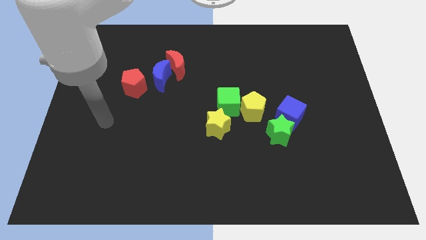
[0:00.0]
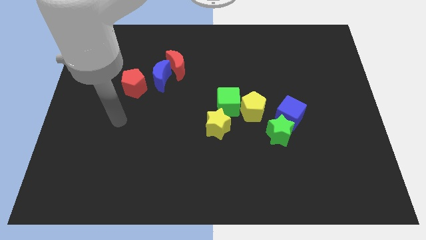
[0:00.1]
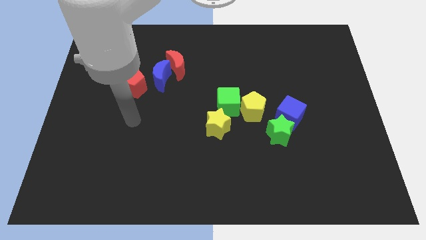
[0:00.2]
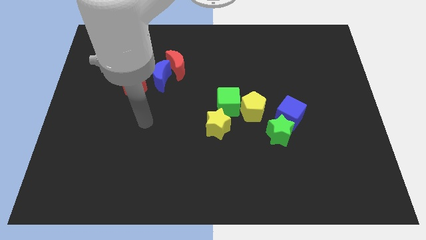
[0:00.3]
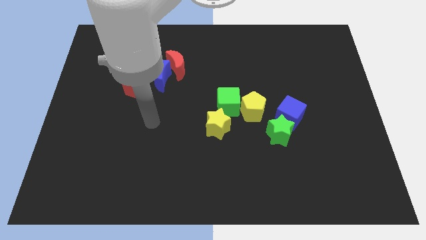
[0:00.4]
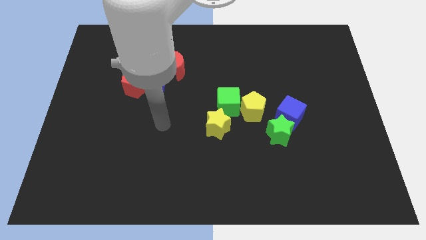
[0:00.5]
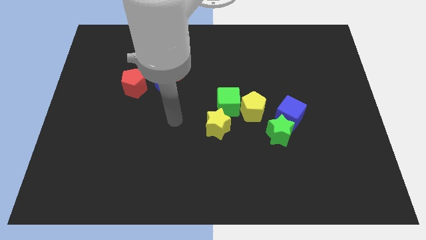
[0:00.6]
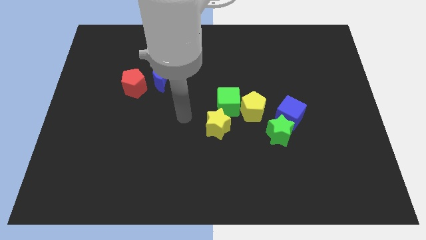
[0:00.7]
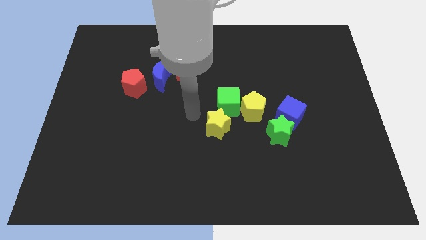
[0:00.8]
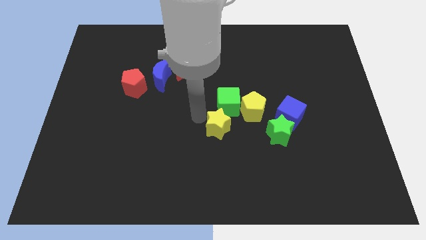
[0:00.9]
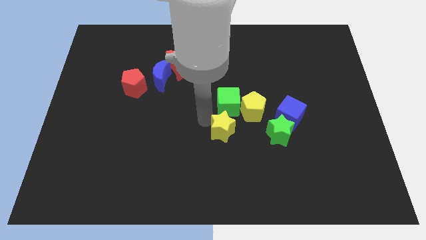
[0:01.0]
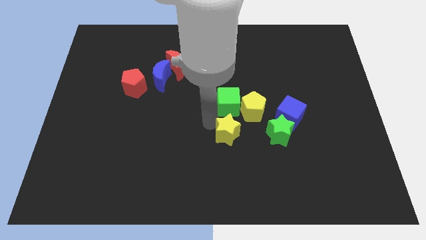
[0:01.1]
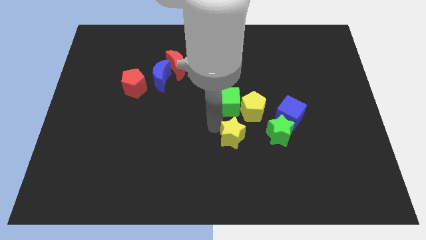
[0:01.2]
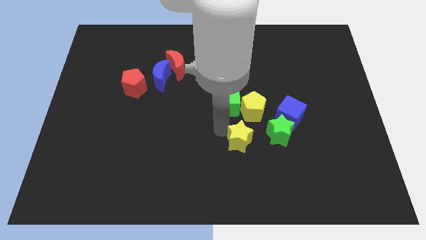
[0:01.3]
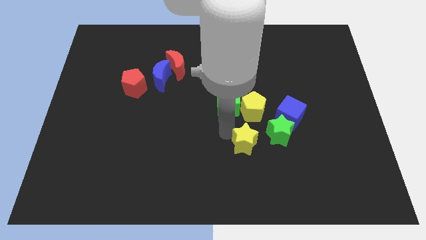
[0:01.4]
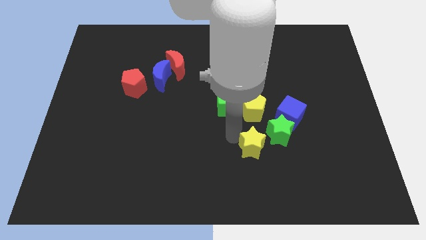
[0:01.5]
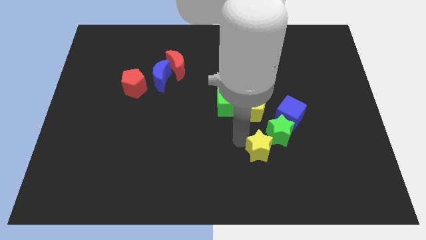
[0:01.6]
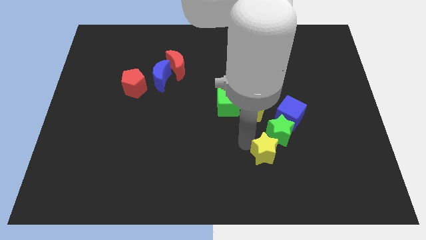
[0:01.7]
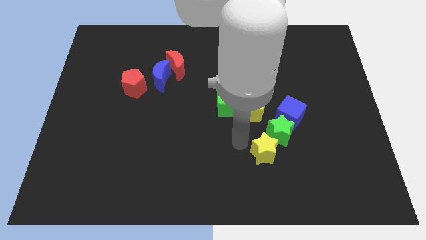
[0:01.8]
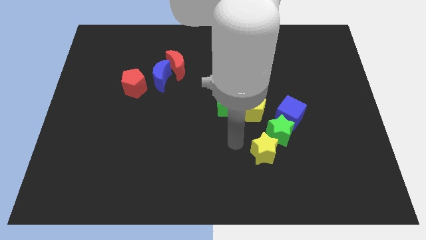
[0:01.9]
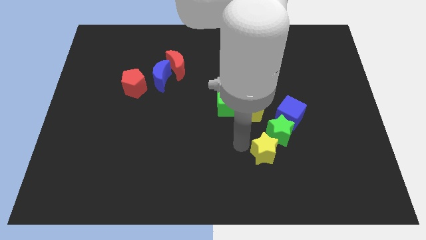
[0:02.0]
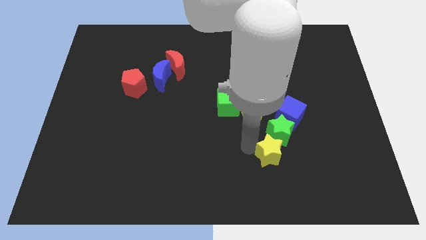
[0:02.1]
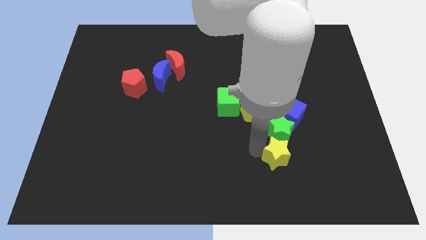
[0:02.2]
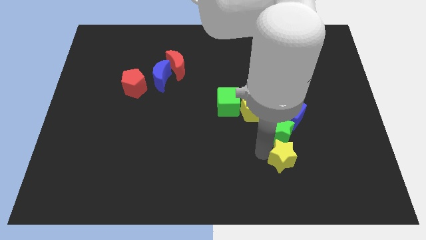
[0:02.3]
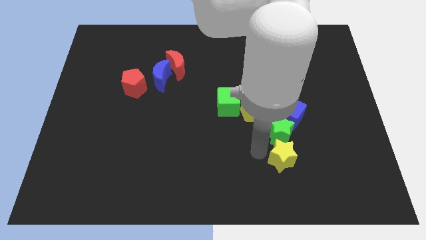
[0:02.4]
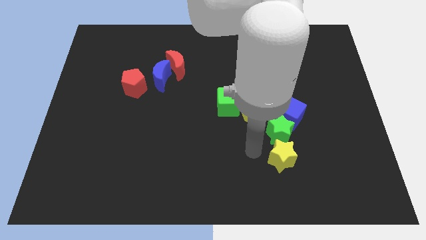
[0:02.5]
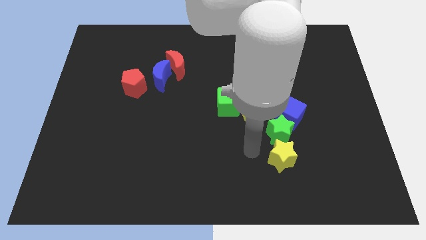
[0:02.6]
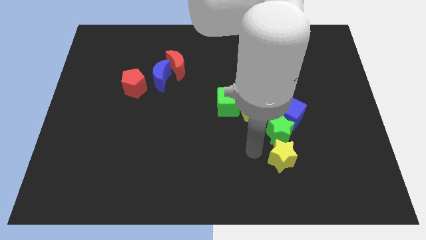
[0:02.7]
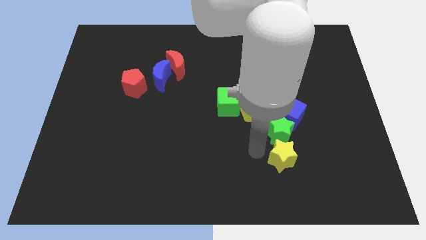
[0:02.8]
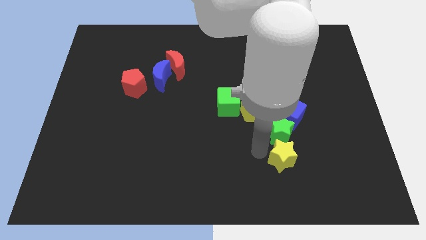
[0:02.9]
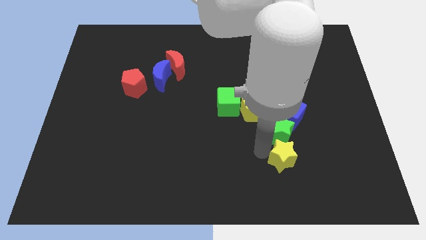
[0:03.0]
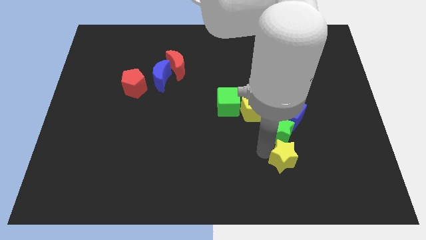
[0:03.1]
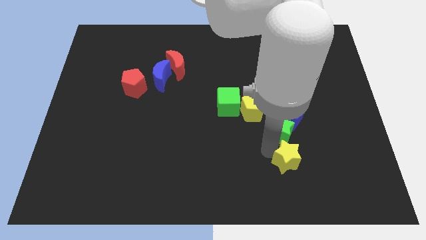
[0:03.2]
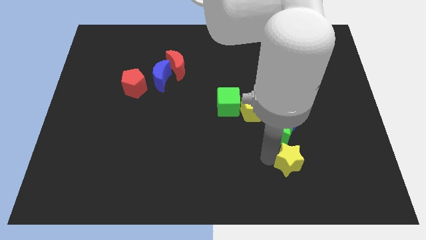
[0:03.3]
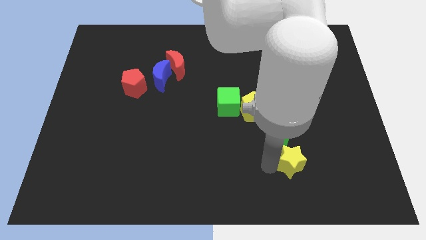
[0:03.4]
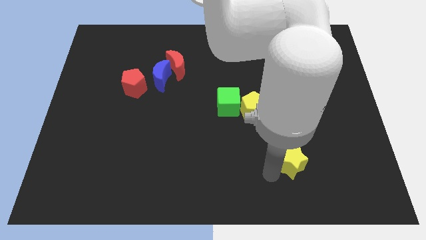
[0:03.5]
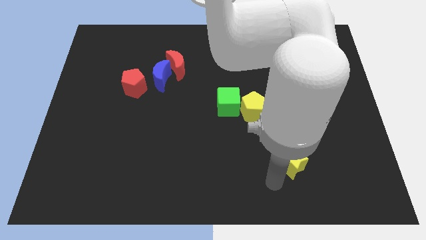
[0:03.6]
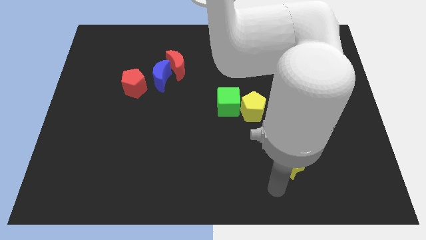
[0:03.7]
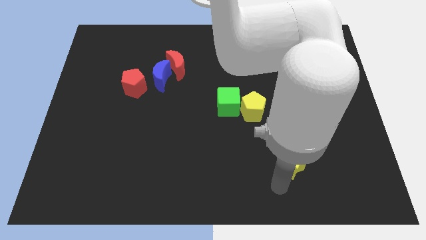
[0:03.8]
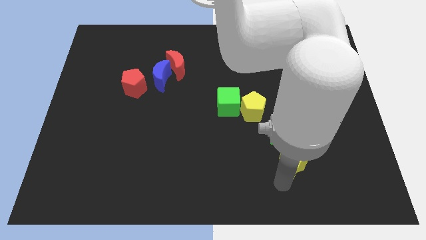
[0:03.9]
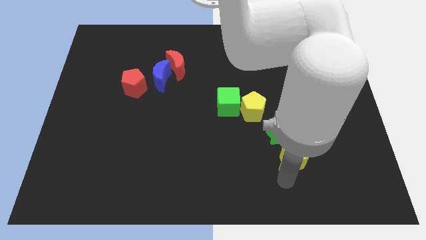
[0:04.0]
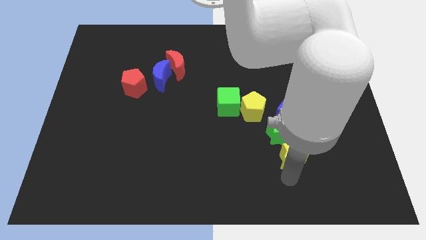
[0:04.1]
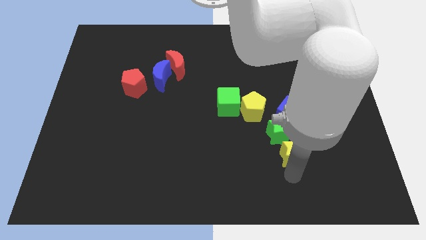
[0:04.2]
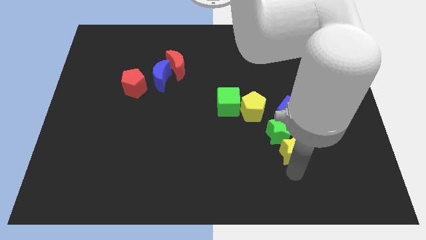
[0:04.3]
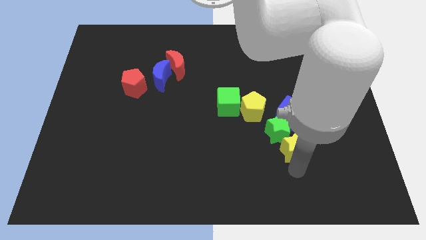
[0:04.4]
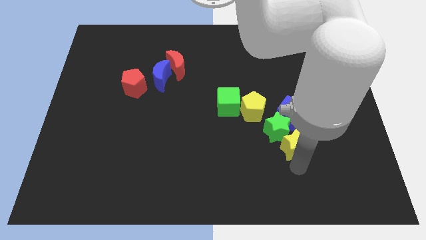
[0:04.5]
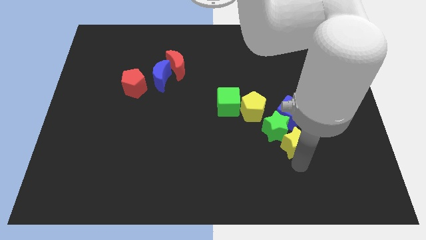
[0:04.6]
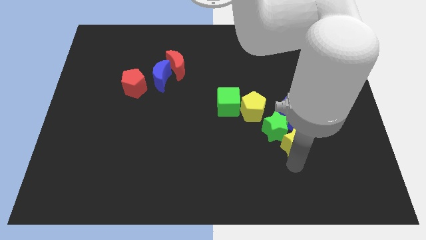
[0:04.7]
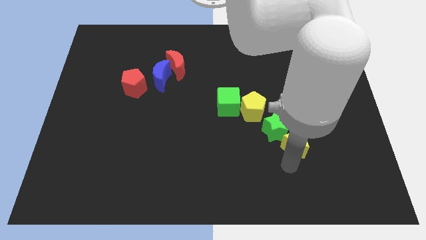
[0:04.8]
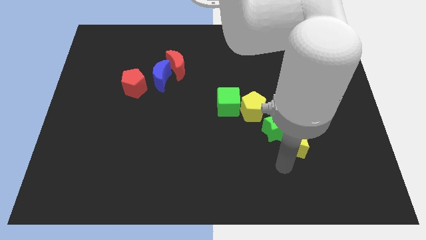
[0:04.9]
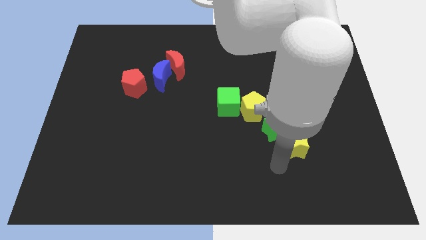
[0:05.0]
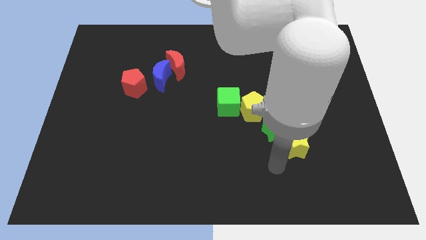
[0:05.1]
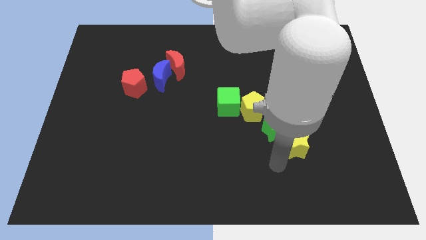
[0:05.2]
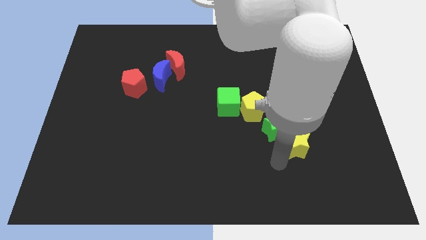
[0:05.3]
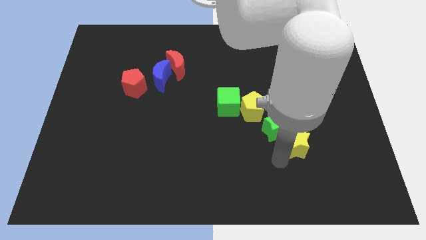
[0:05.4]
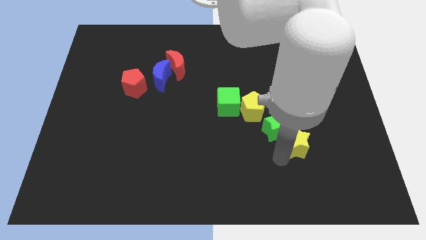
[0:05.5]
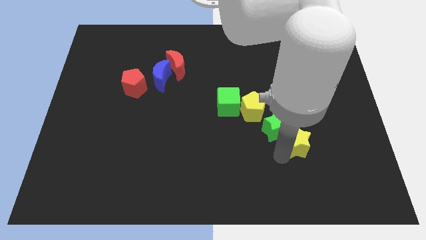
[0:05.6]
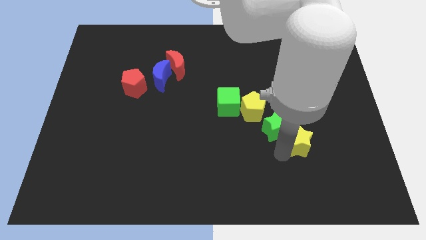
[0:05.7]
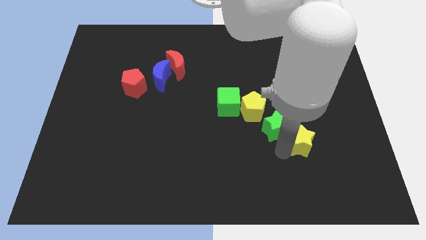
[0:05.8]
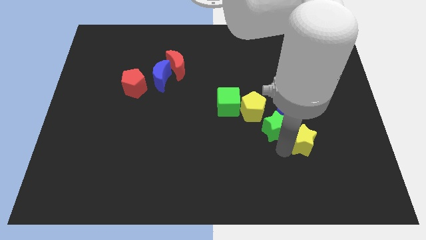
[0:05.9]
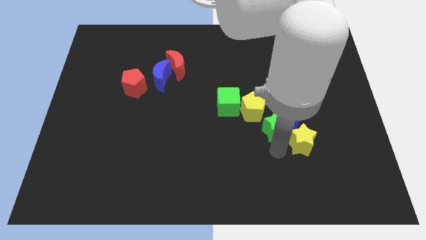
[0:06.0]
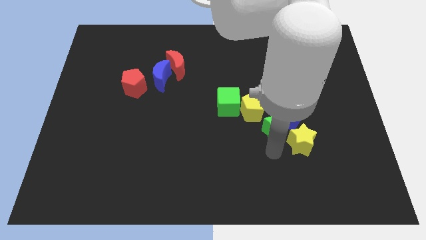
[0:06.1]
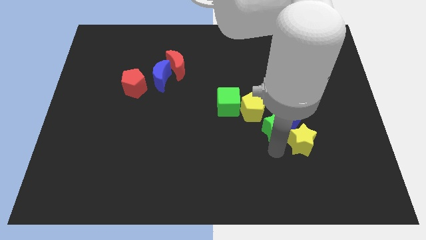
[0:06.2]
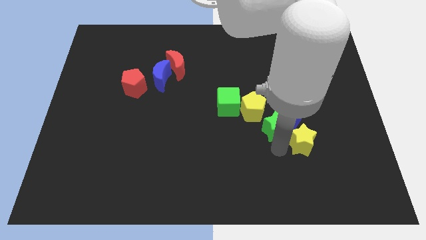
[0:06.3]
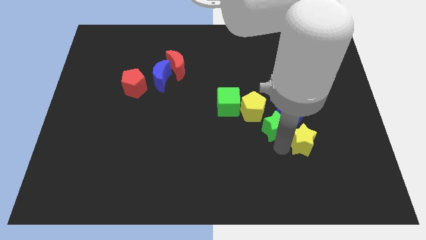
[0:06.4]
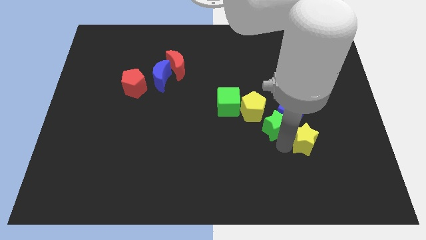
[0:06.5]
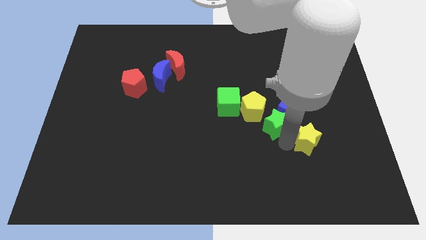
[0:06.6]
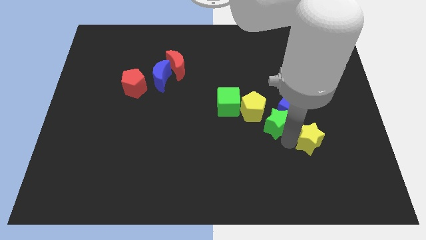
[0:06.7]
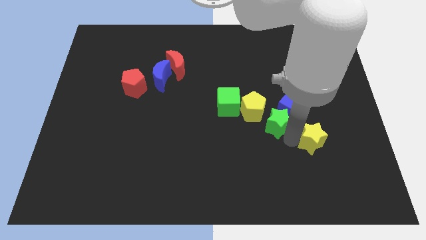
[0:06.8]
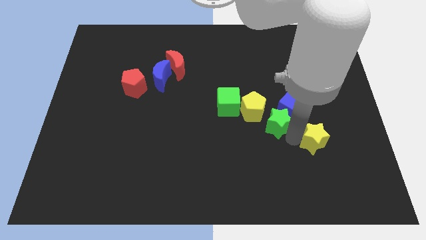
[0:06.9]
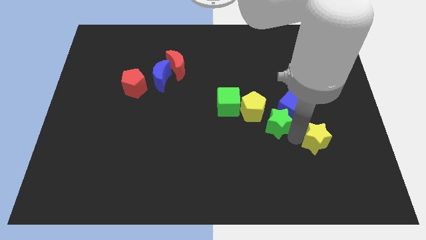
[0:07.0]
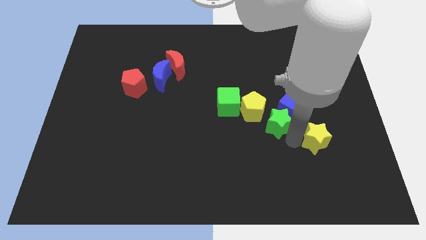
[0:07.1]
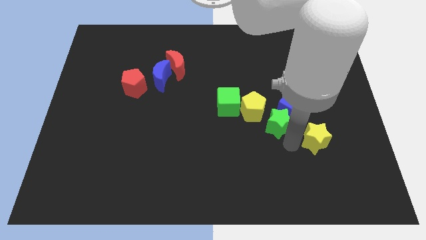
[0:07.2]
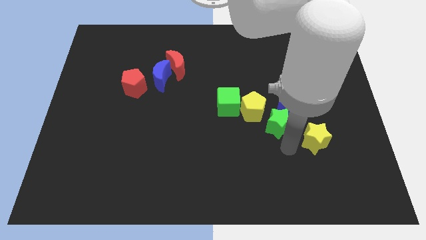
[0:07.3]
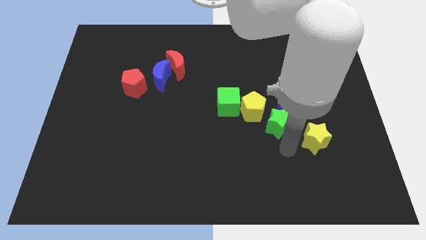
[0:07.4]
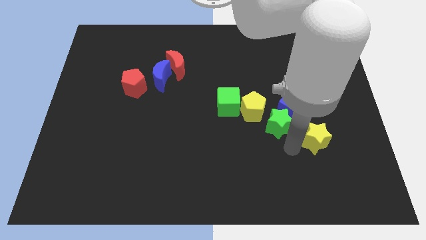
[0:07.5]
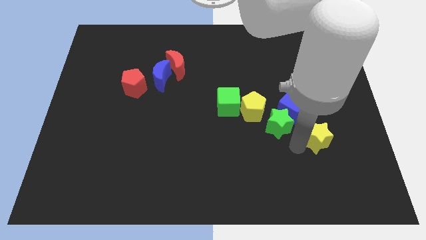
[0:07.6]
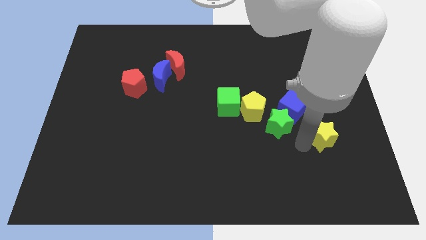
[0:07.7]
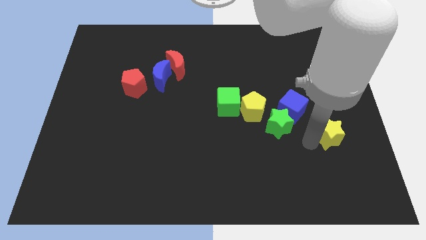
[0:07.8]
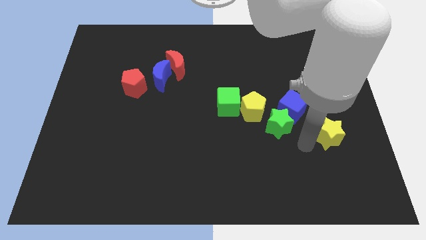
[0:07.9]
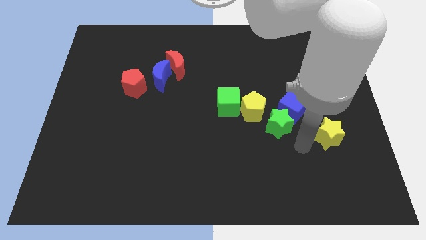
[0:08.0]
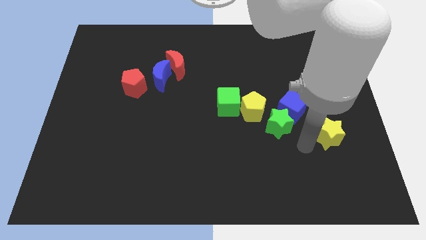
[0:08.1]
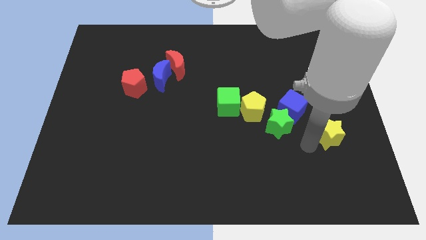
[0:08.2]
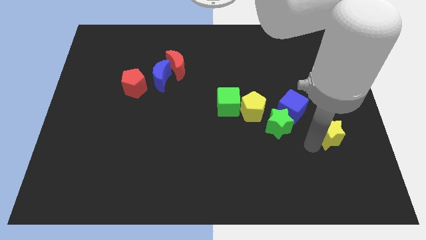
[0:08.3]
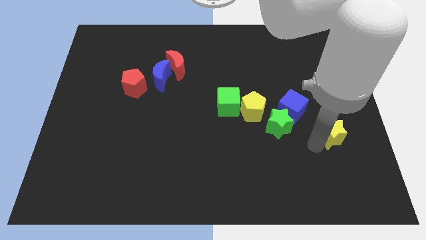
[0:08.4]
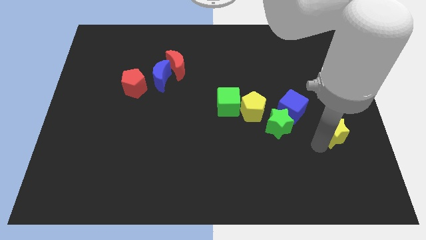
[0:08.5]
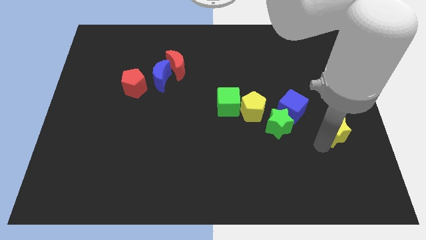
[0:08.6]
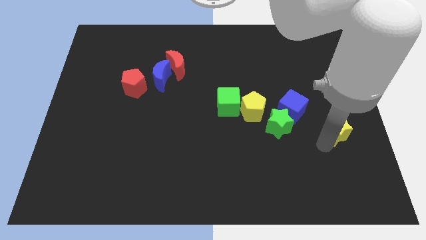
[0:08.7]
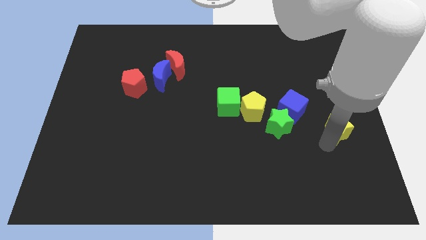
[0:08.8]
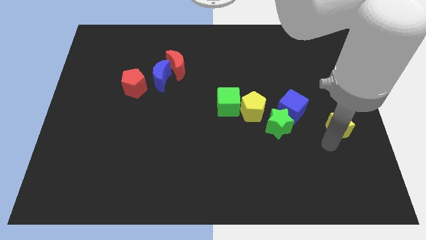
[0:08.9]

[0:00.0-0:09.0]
move the yellow star to the center right
